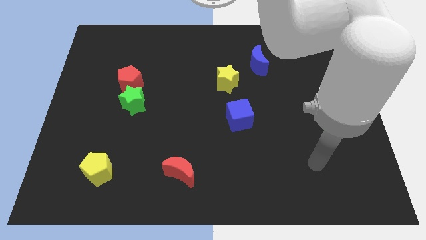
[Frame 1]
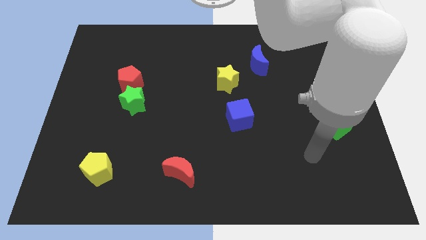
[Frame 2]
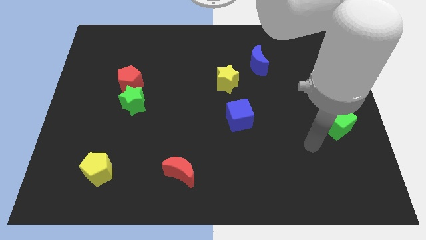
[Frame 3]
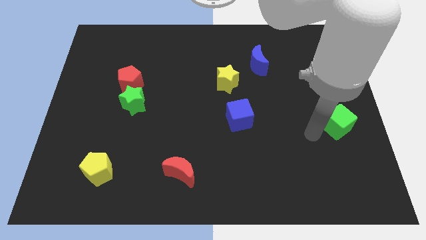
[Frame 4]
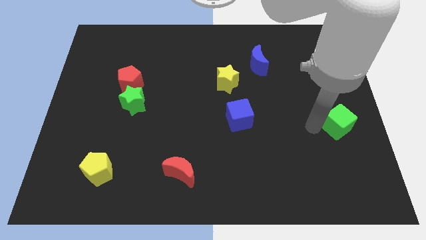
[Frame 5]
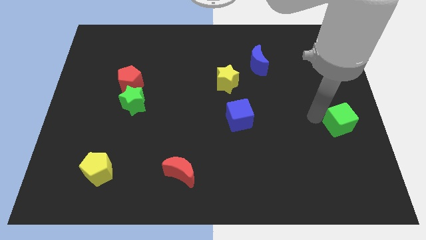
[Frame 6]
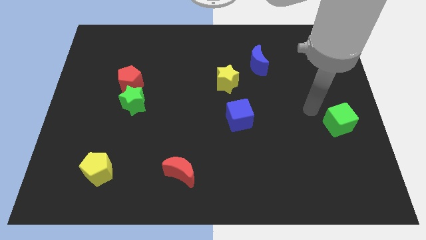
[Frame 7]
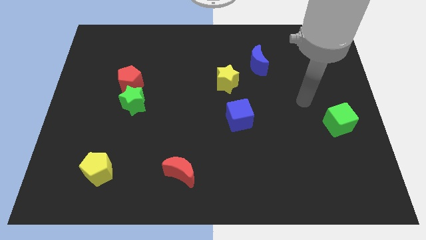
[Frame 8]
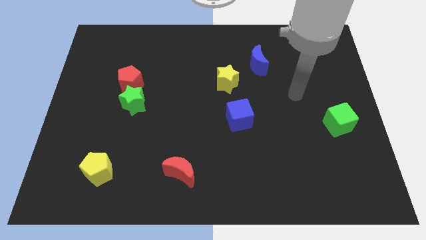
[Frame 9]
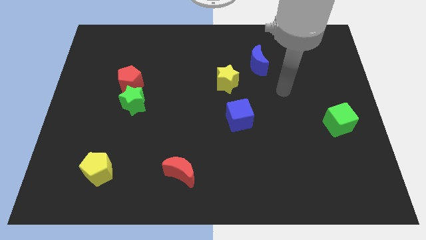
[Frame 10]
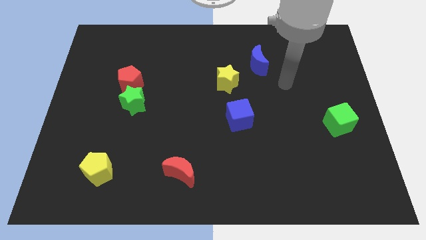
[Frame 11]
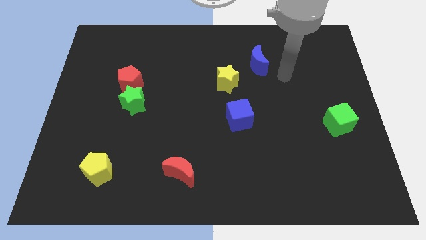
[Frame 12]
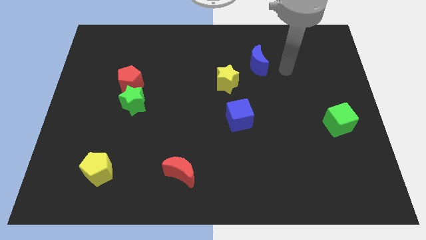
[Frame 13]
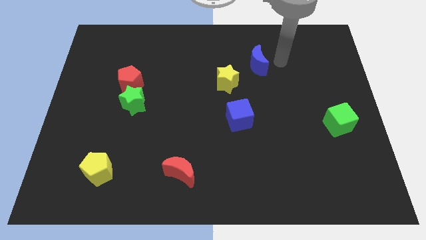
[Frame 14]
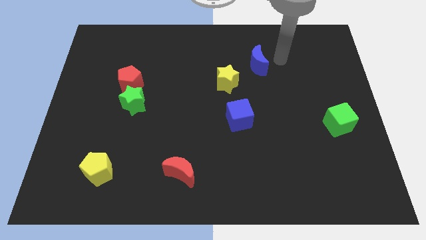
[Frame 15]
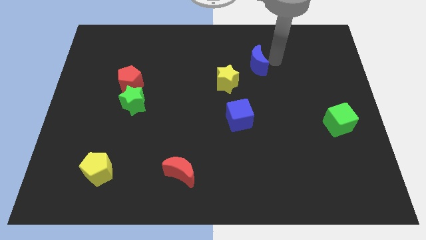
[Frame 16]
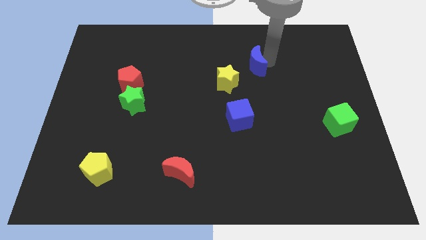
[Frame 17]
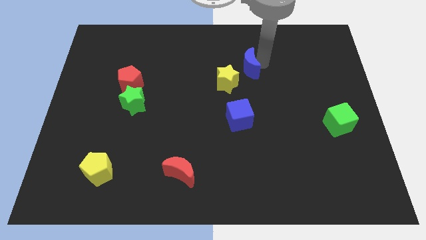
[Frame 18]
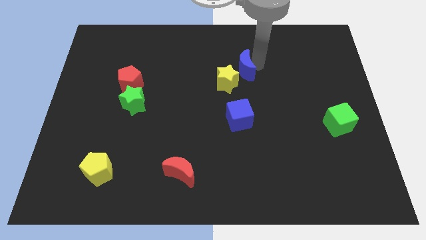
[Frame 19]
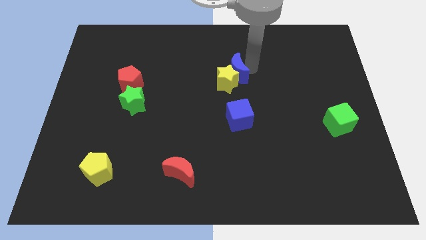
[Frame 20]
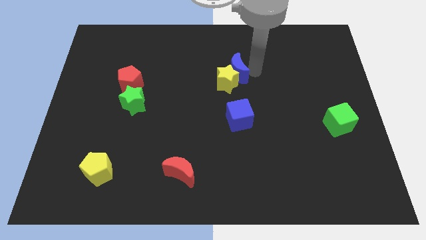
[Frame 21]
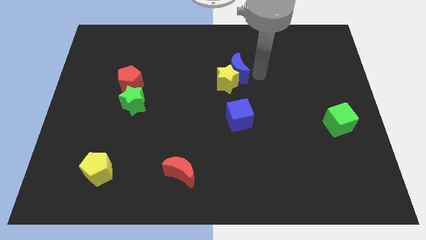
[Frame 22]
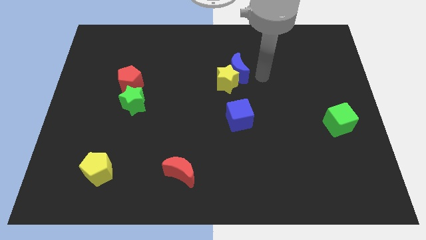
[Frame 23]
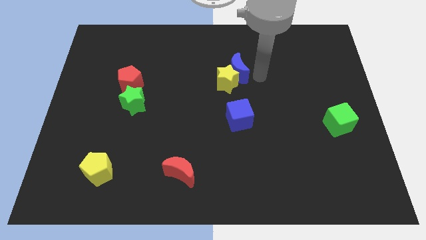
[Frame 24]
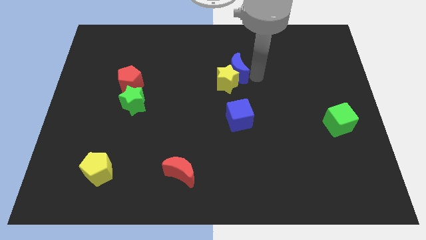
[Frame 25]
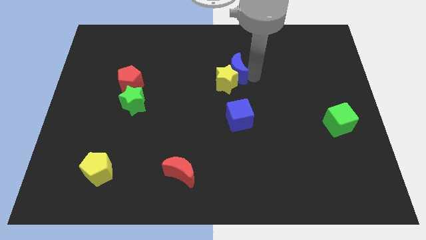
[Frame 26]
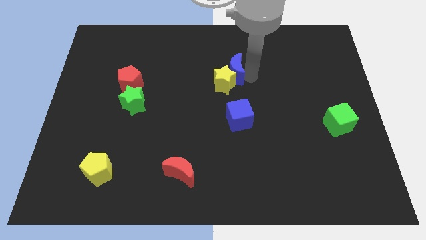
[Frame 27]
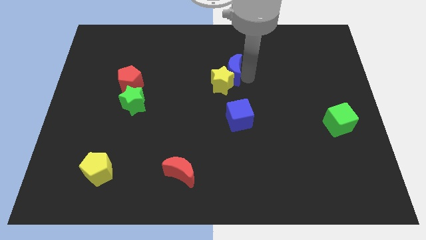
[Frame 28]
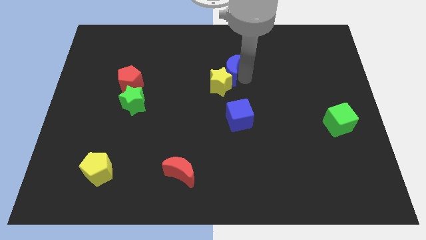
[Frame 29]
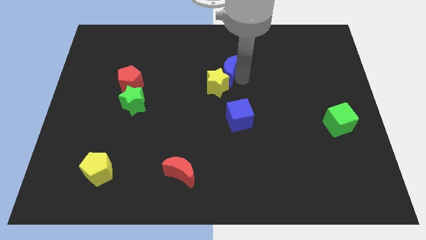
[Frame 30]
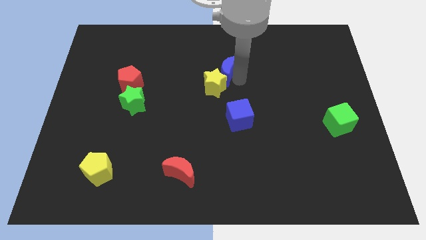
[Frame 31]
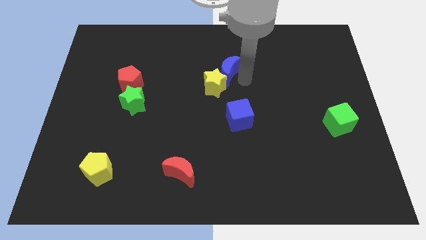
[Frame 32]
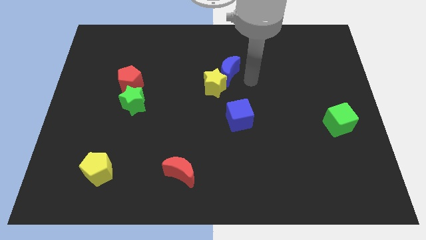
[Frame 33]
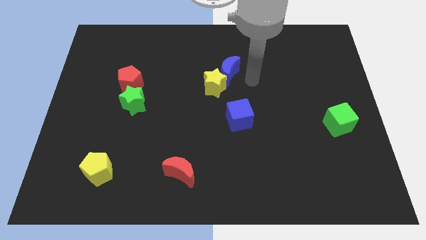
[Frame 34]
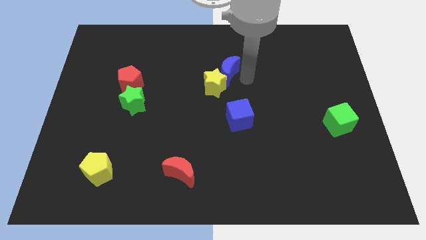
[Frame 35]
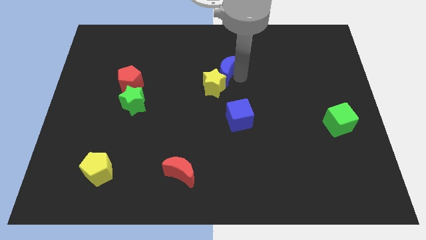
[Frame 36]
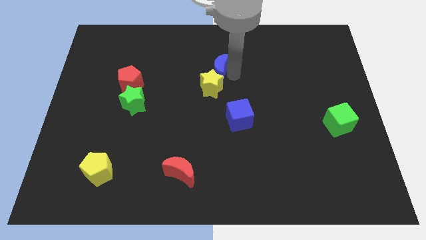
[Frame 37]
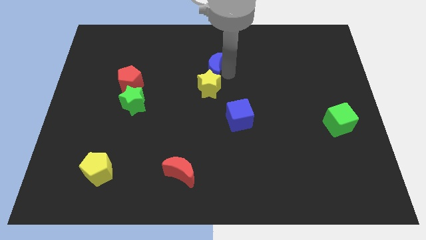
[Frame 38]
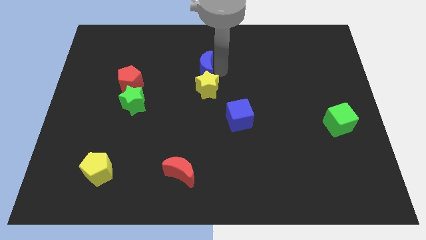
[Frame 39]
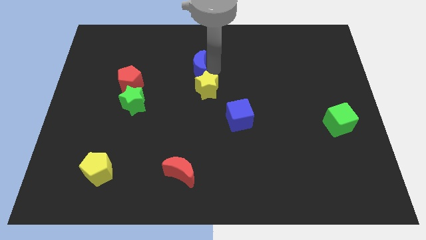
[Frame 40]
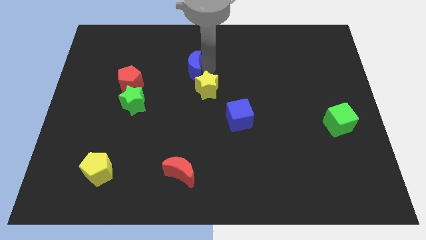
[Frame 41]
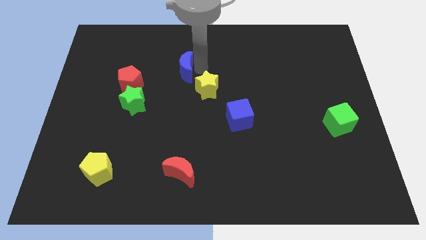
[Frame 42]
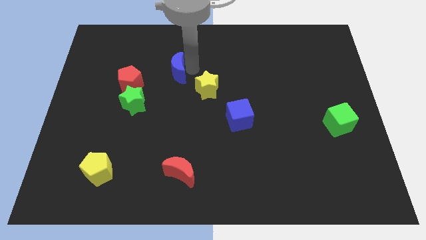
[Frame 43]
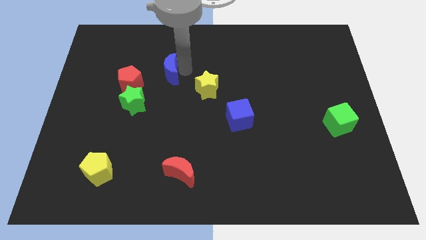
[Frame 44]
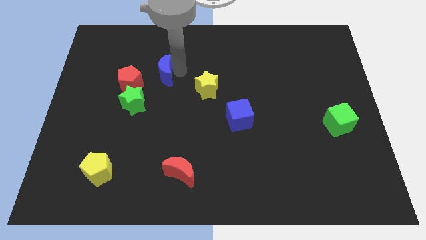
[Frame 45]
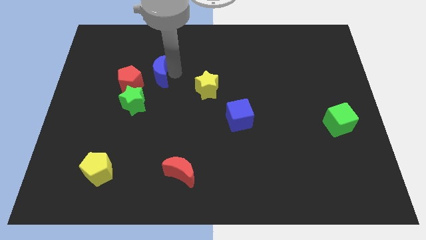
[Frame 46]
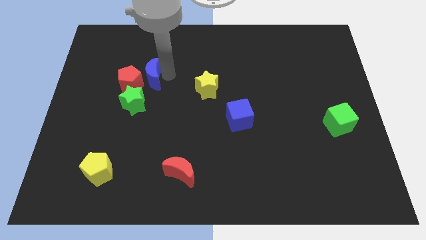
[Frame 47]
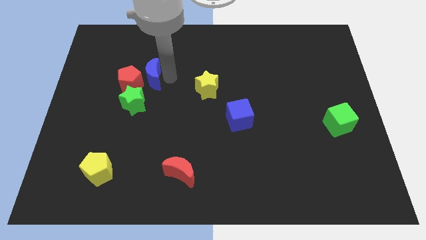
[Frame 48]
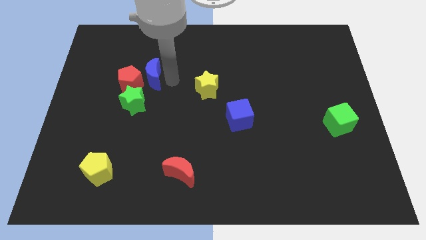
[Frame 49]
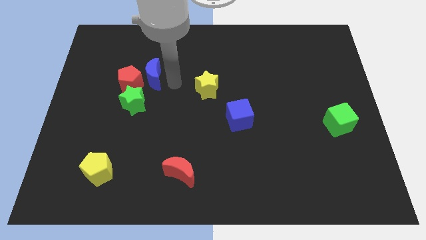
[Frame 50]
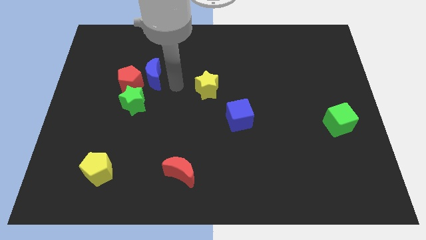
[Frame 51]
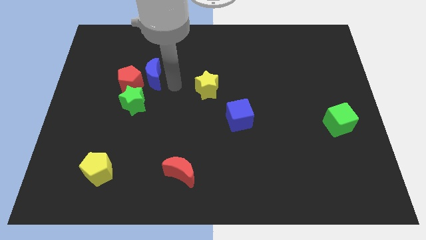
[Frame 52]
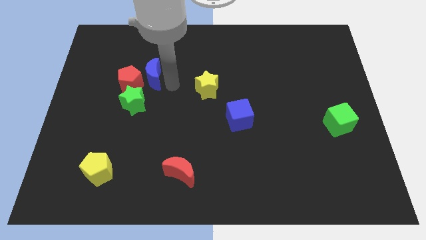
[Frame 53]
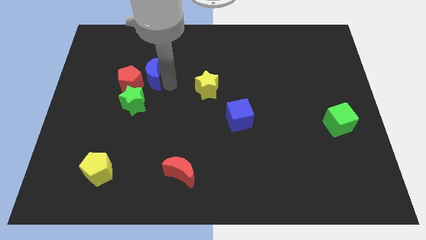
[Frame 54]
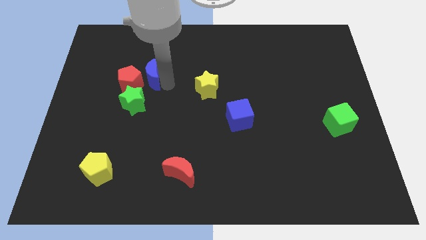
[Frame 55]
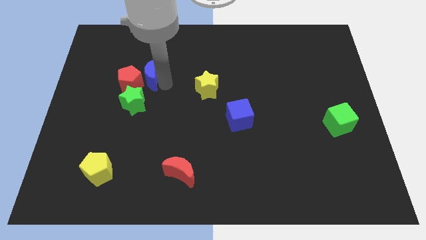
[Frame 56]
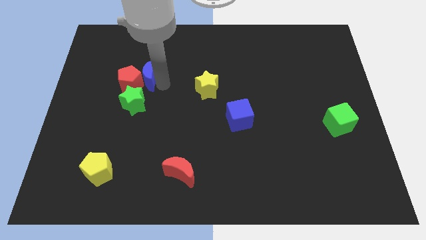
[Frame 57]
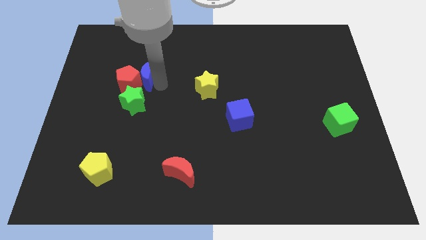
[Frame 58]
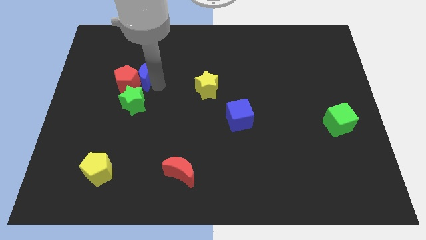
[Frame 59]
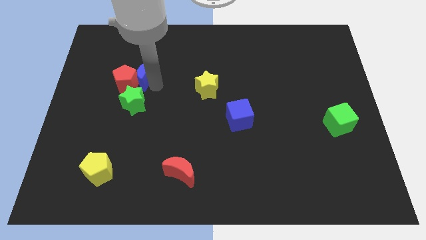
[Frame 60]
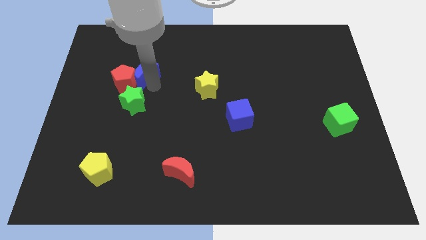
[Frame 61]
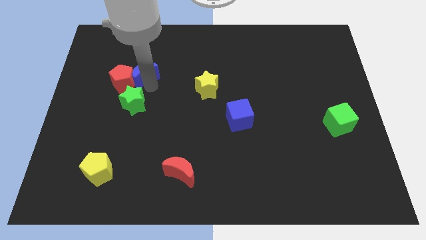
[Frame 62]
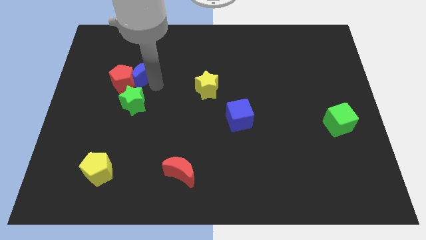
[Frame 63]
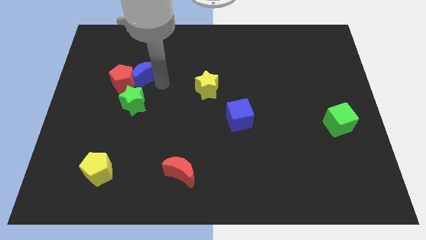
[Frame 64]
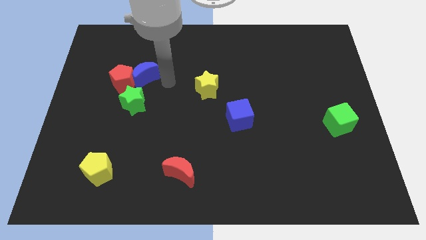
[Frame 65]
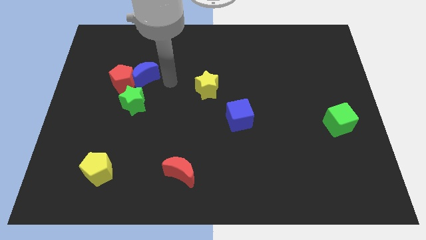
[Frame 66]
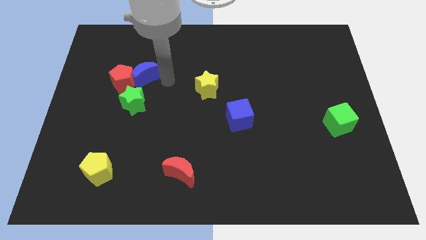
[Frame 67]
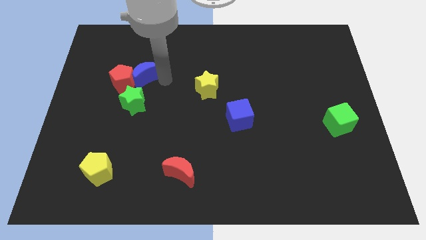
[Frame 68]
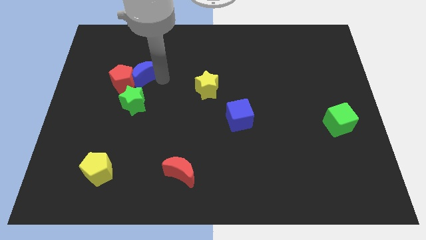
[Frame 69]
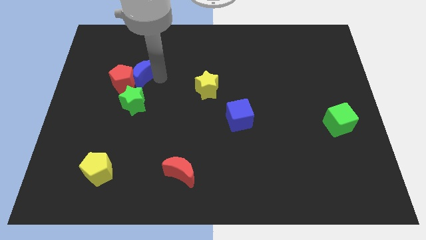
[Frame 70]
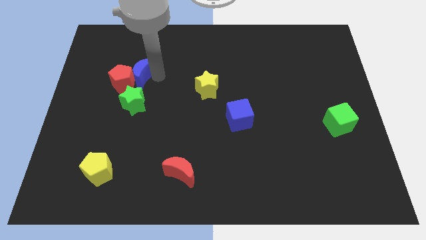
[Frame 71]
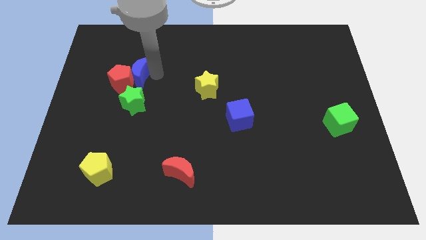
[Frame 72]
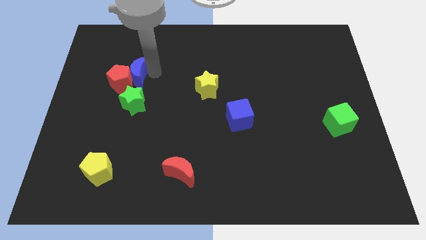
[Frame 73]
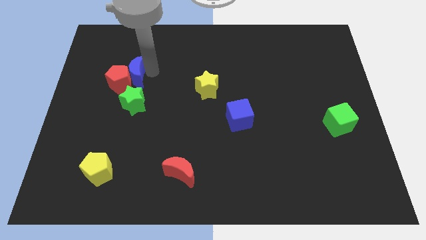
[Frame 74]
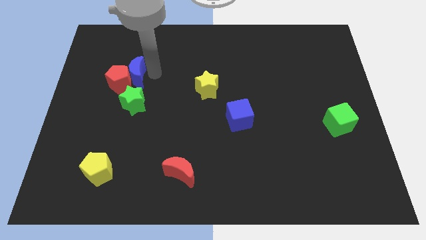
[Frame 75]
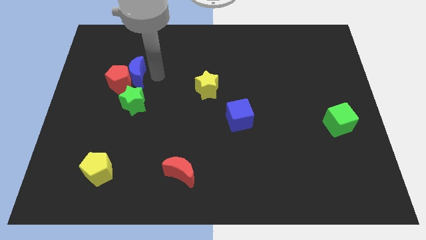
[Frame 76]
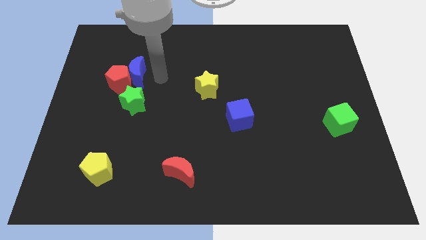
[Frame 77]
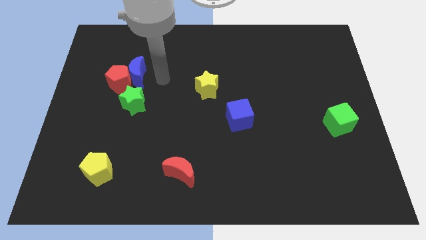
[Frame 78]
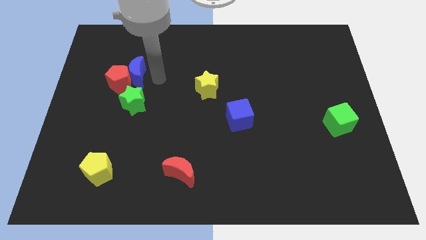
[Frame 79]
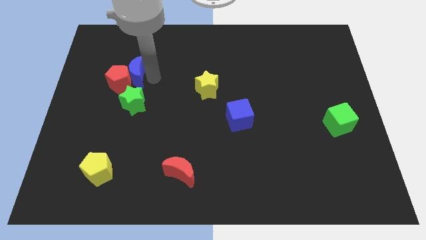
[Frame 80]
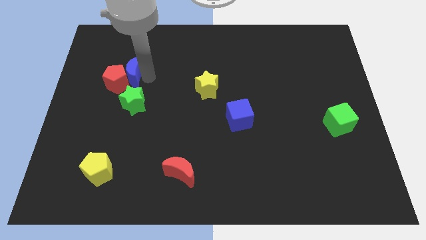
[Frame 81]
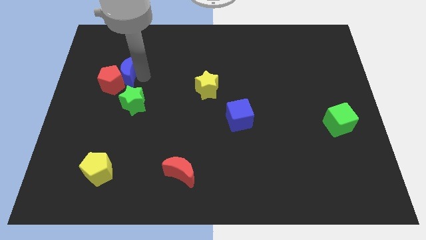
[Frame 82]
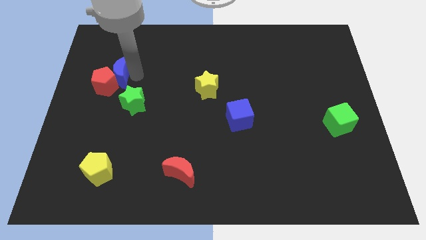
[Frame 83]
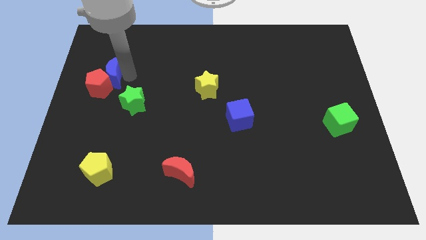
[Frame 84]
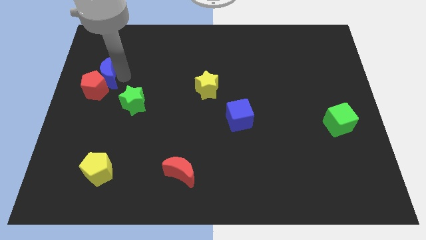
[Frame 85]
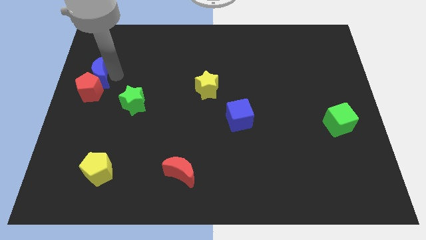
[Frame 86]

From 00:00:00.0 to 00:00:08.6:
slide the blue moon to the left side
